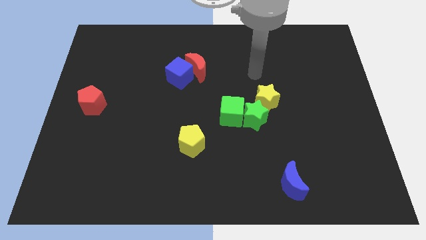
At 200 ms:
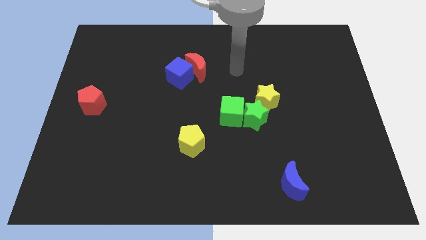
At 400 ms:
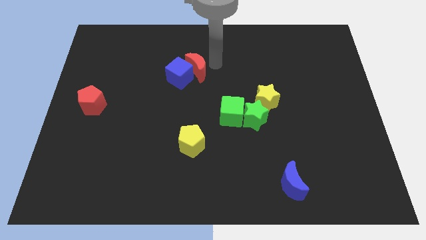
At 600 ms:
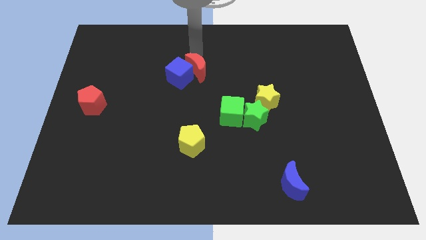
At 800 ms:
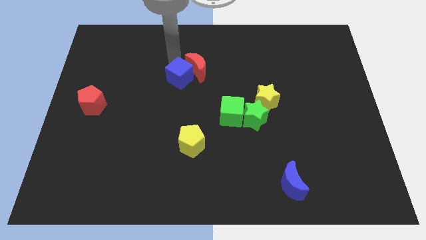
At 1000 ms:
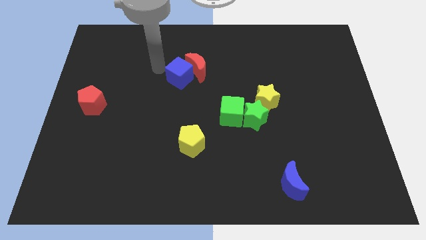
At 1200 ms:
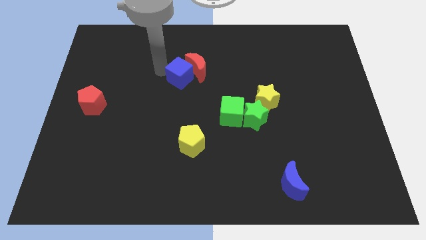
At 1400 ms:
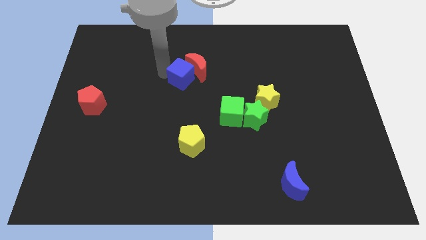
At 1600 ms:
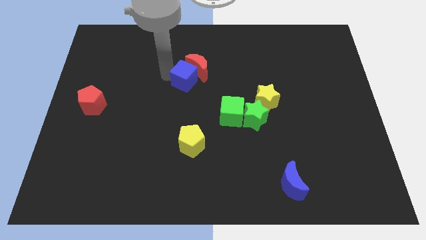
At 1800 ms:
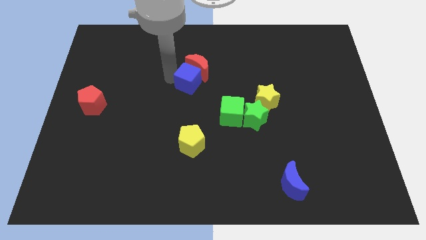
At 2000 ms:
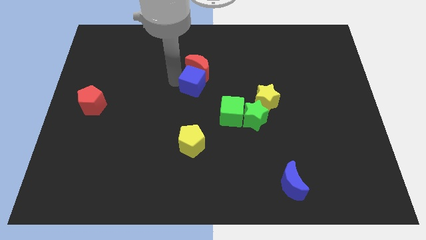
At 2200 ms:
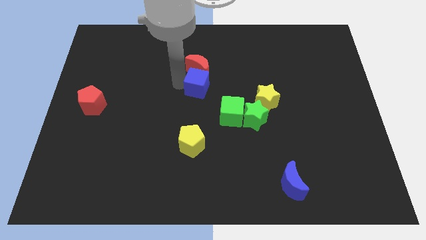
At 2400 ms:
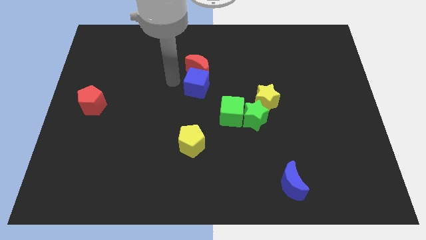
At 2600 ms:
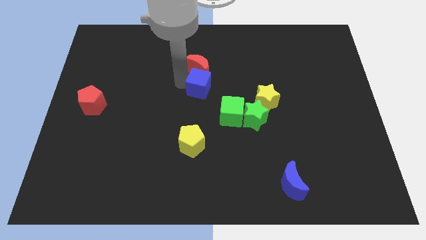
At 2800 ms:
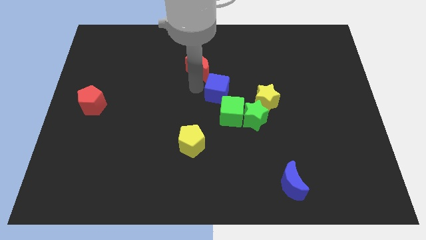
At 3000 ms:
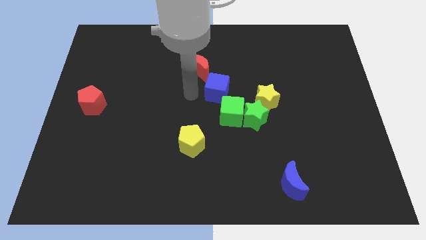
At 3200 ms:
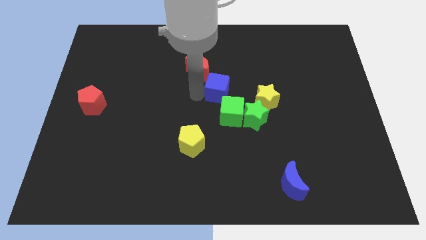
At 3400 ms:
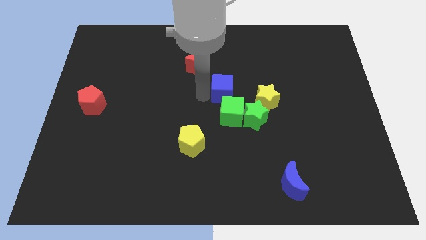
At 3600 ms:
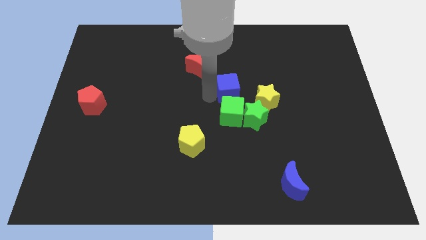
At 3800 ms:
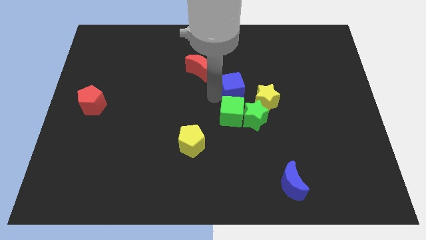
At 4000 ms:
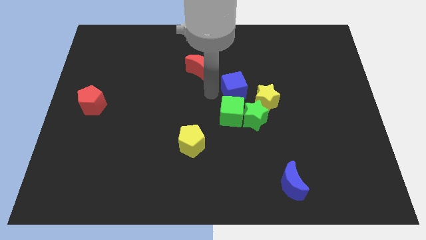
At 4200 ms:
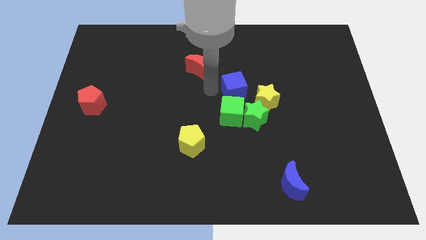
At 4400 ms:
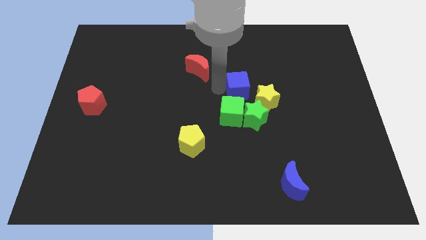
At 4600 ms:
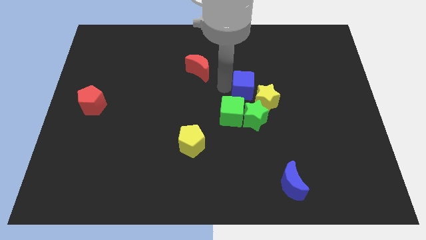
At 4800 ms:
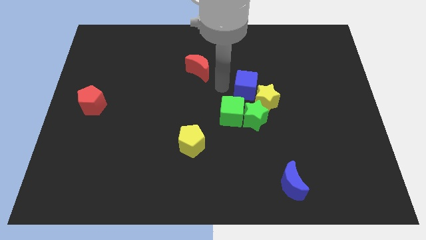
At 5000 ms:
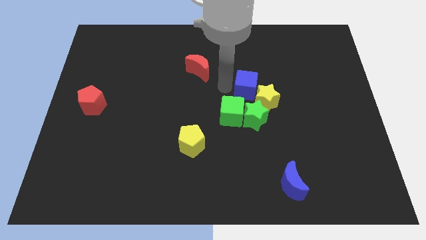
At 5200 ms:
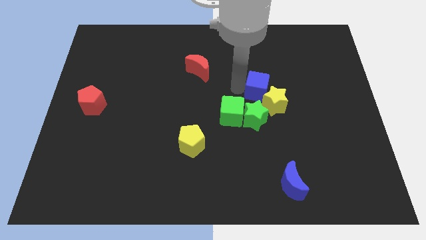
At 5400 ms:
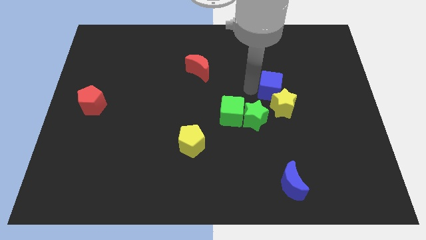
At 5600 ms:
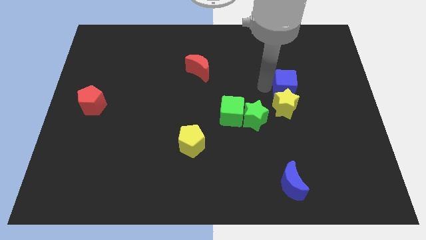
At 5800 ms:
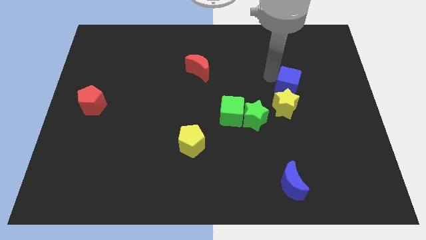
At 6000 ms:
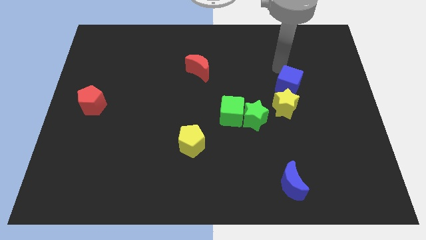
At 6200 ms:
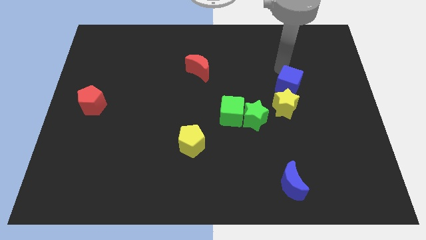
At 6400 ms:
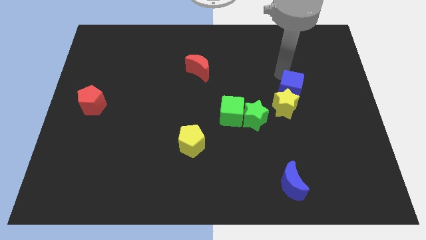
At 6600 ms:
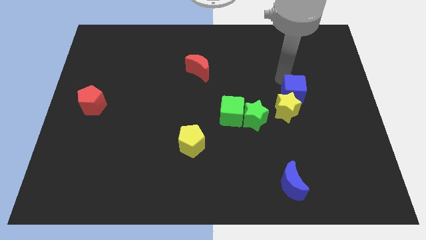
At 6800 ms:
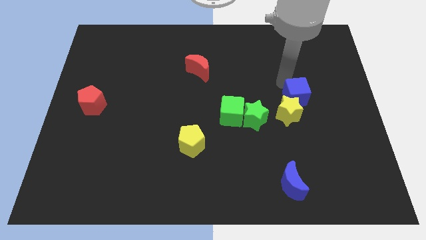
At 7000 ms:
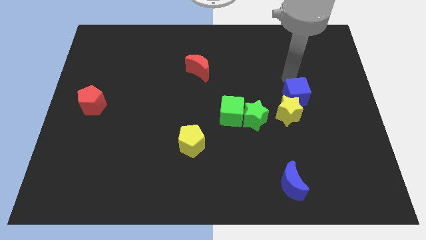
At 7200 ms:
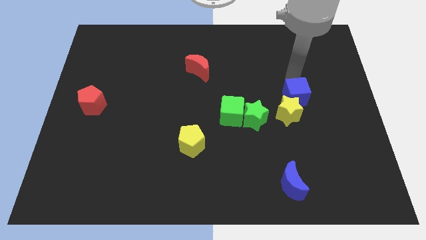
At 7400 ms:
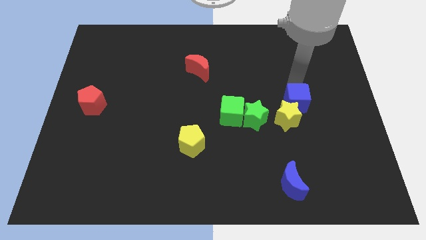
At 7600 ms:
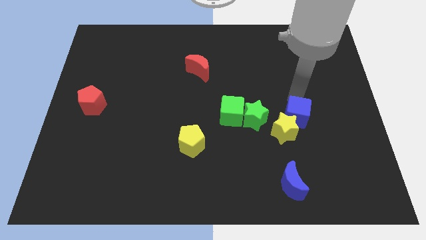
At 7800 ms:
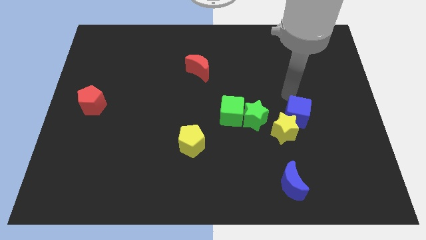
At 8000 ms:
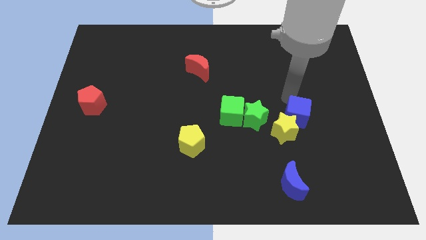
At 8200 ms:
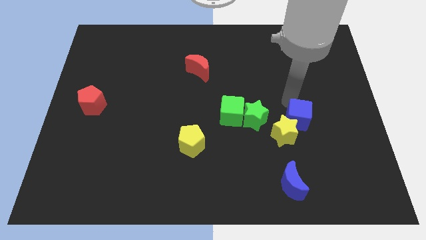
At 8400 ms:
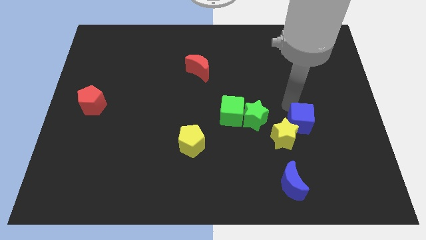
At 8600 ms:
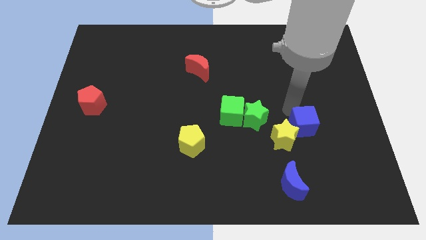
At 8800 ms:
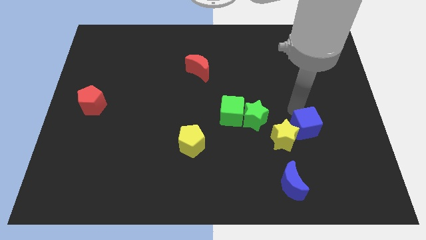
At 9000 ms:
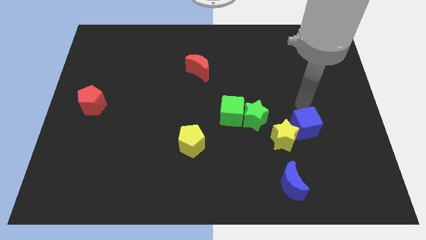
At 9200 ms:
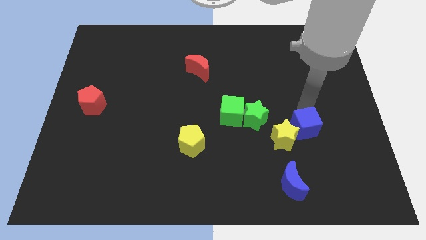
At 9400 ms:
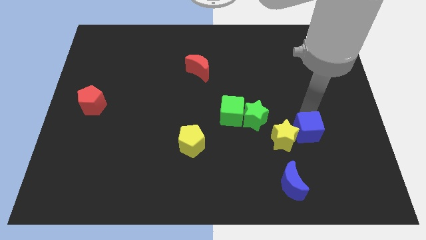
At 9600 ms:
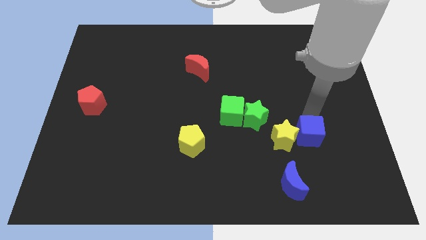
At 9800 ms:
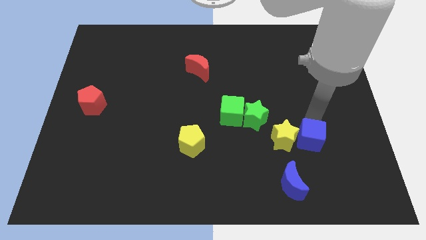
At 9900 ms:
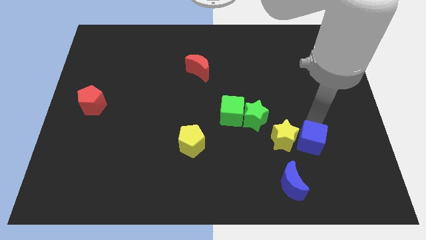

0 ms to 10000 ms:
push the blue cube to the top right of the blue moon

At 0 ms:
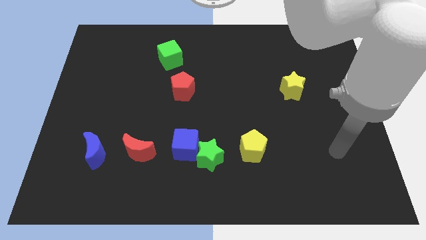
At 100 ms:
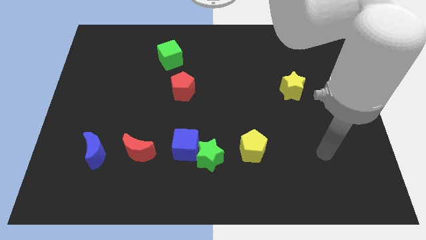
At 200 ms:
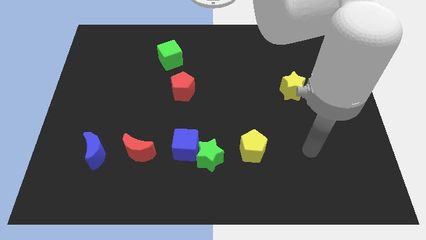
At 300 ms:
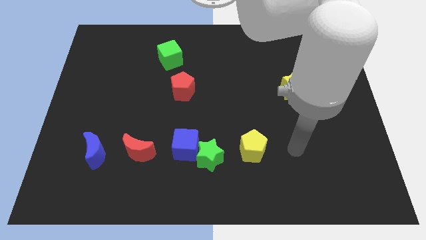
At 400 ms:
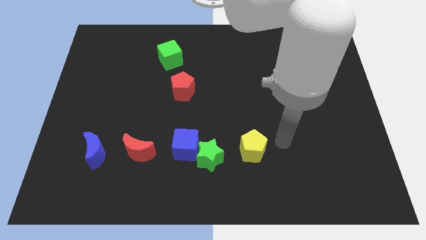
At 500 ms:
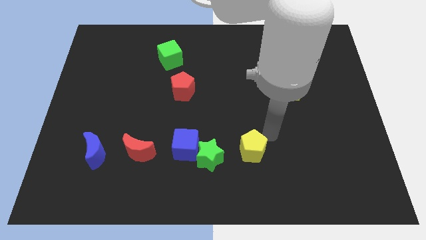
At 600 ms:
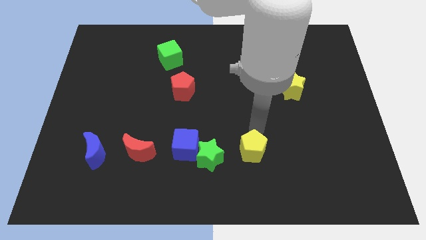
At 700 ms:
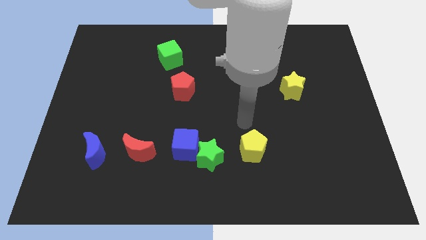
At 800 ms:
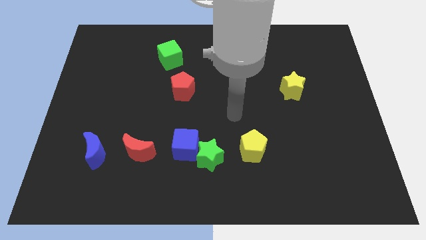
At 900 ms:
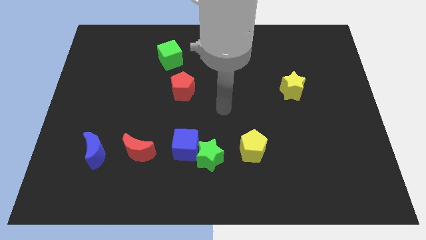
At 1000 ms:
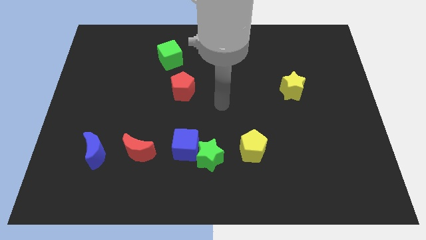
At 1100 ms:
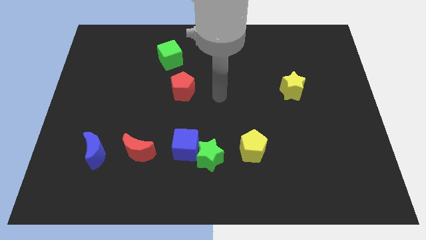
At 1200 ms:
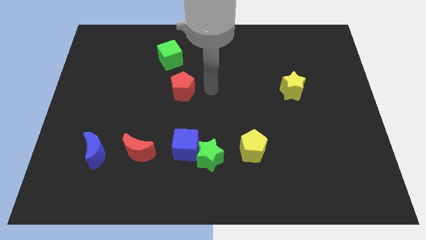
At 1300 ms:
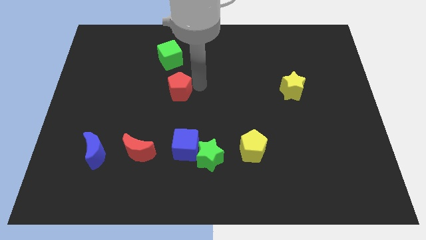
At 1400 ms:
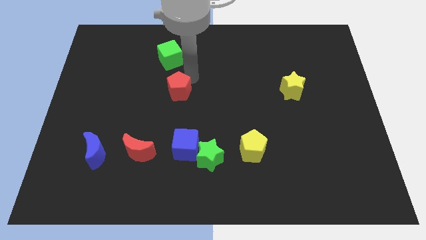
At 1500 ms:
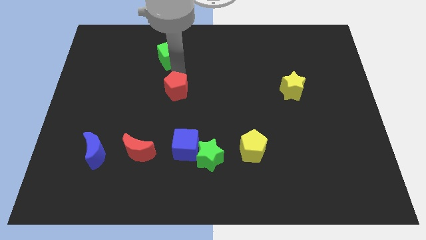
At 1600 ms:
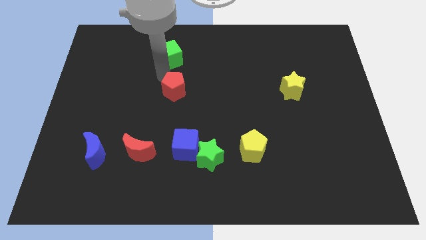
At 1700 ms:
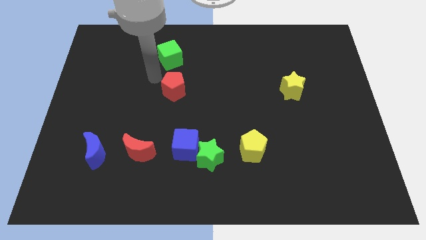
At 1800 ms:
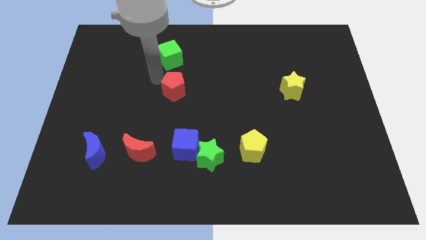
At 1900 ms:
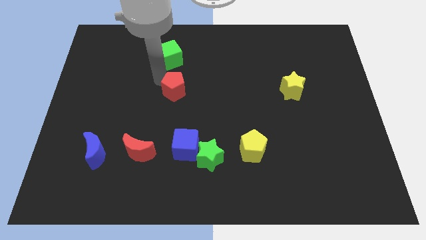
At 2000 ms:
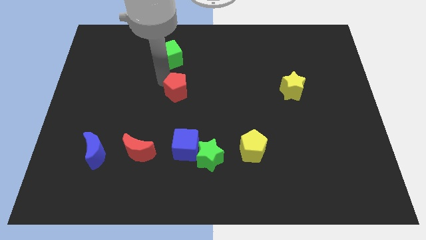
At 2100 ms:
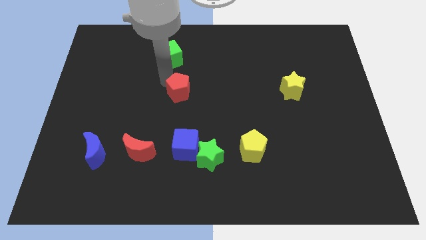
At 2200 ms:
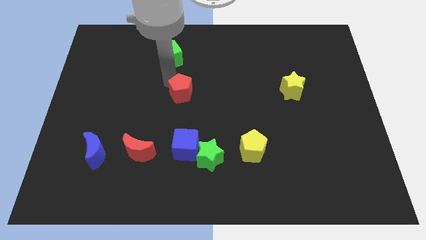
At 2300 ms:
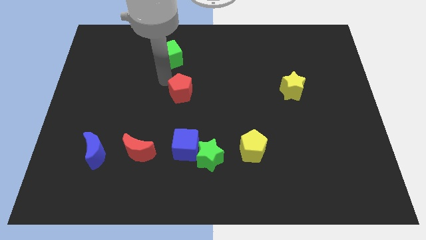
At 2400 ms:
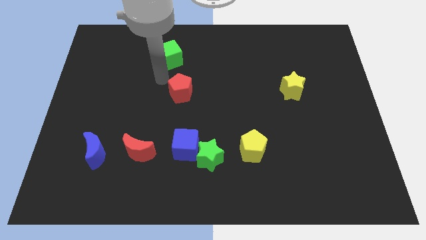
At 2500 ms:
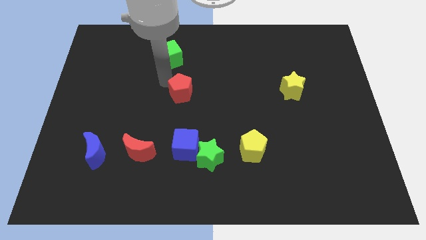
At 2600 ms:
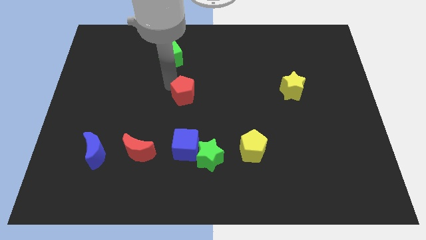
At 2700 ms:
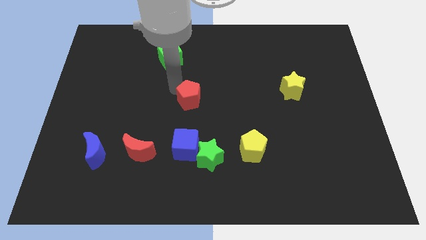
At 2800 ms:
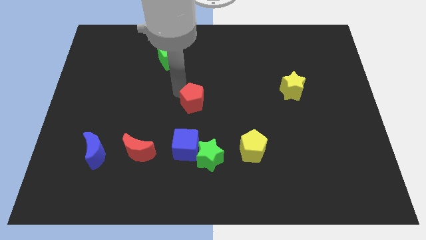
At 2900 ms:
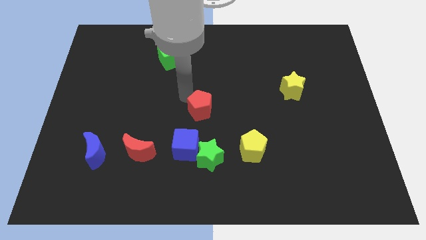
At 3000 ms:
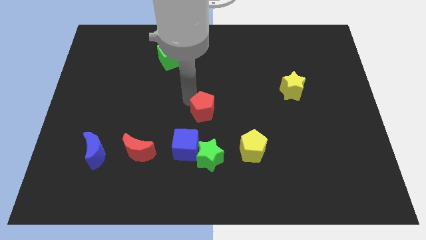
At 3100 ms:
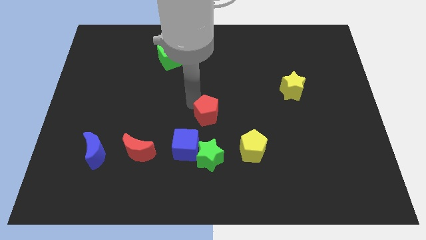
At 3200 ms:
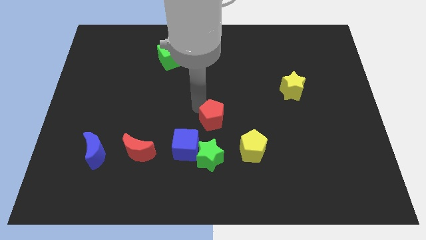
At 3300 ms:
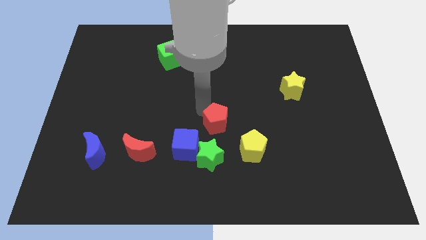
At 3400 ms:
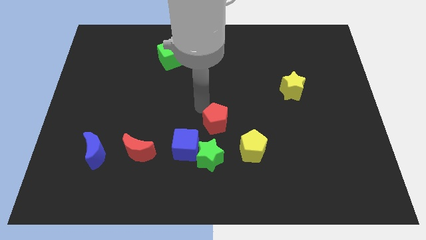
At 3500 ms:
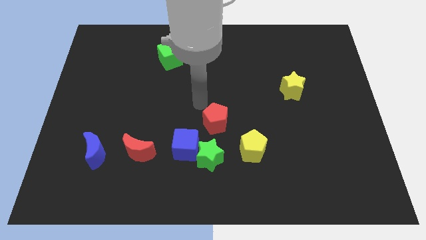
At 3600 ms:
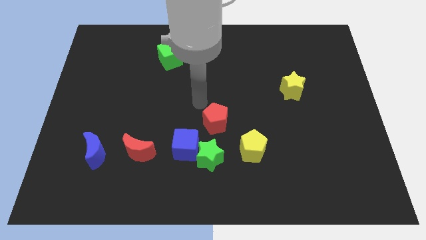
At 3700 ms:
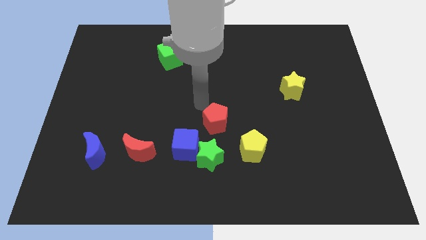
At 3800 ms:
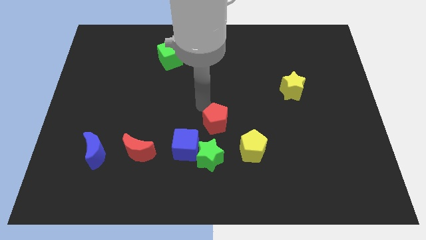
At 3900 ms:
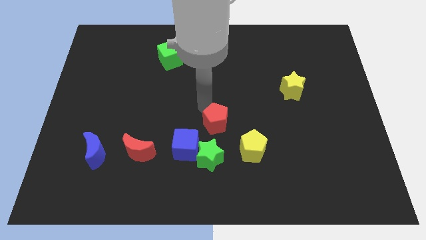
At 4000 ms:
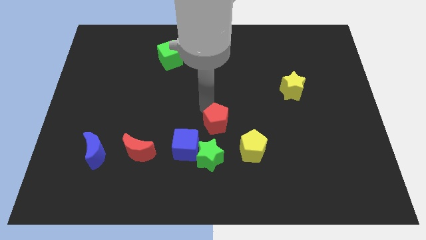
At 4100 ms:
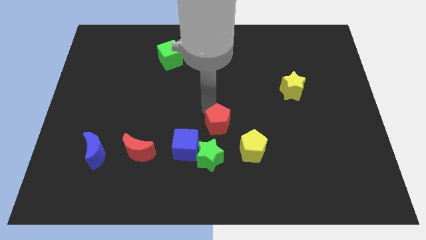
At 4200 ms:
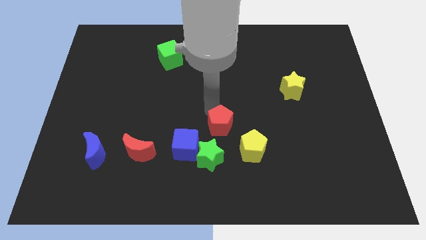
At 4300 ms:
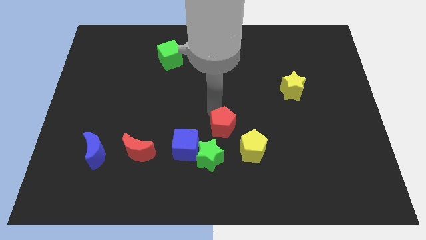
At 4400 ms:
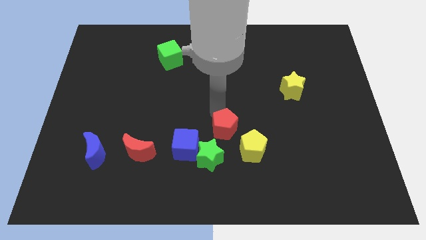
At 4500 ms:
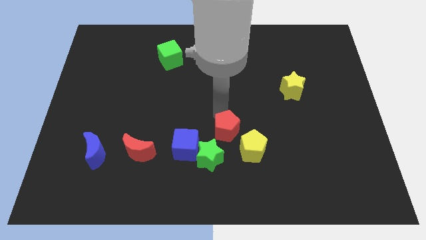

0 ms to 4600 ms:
slide the red pentagon just right of the blue cube
